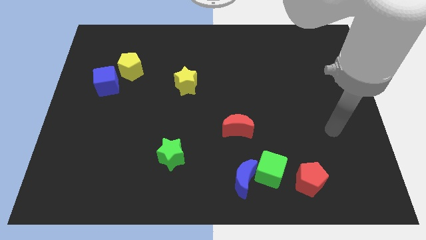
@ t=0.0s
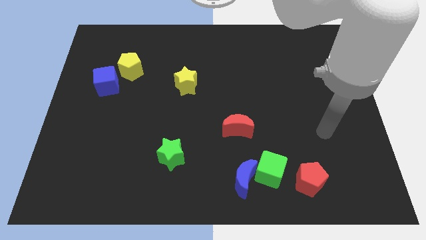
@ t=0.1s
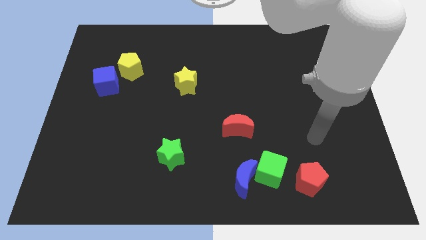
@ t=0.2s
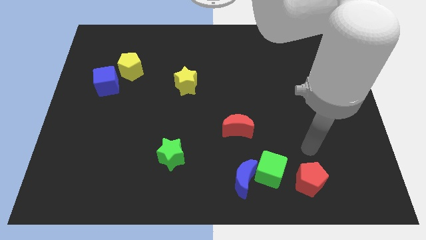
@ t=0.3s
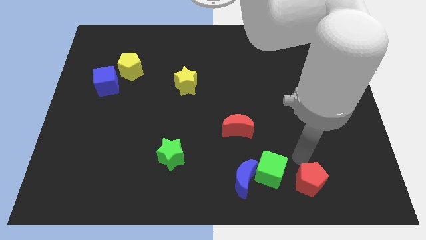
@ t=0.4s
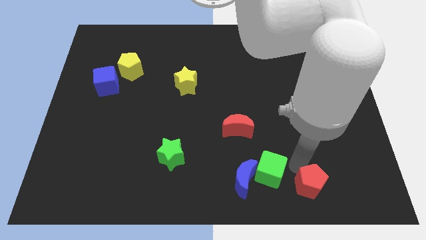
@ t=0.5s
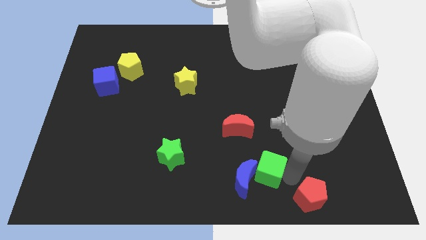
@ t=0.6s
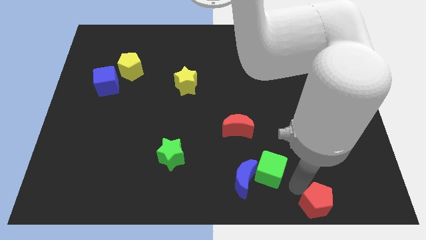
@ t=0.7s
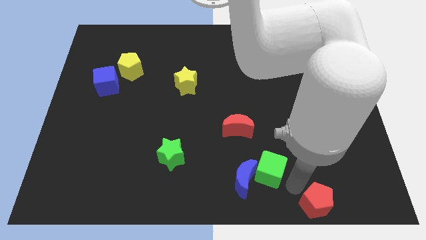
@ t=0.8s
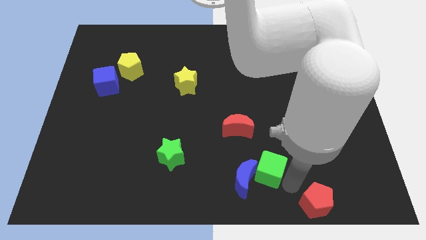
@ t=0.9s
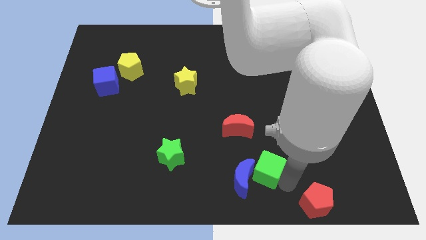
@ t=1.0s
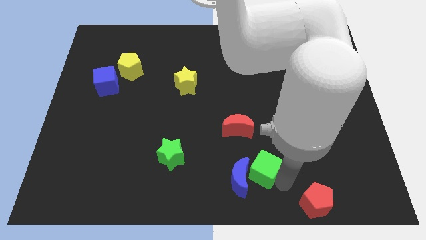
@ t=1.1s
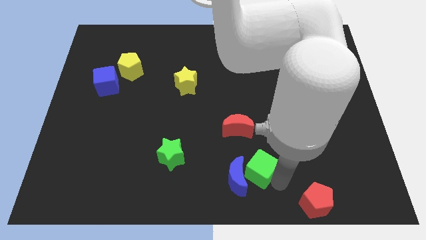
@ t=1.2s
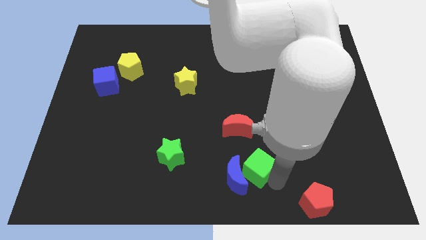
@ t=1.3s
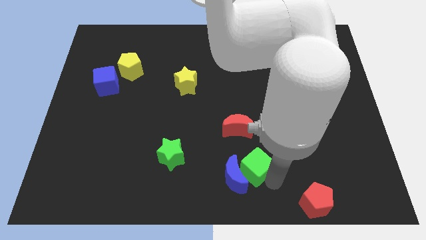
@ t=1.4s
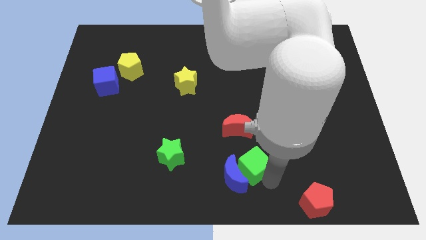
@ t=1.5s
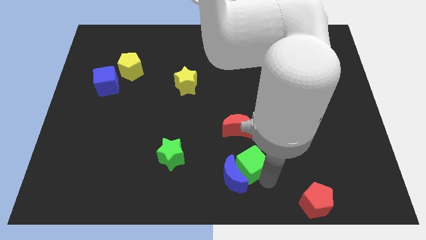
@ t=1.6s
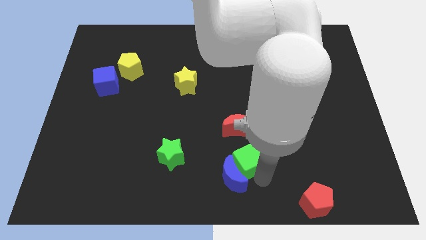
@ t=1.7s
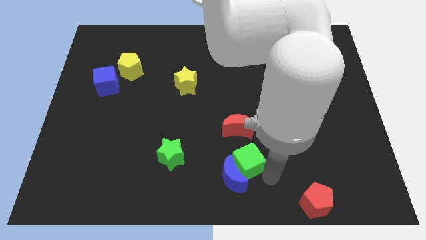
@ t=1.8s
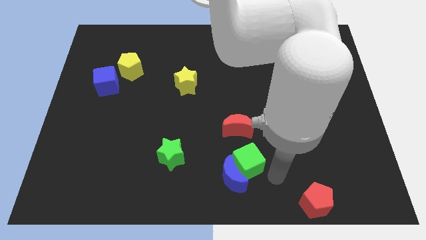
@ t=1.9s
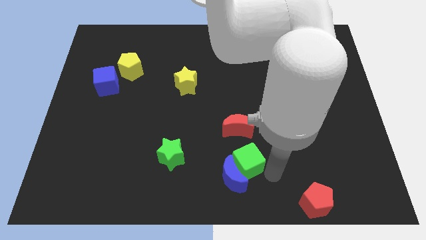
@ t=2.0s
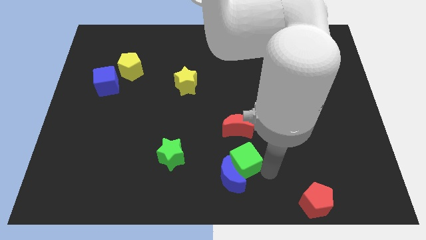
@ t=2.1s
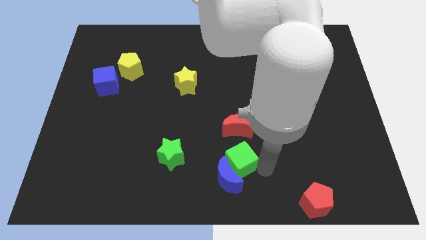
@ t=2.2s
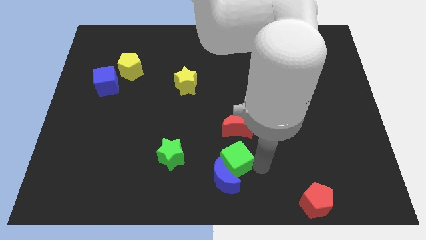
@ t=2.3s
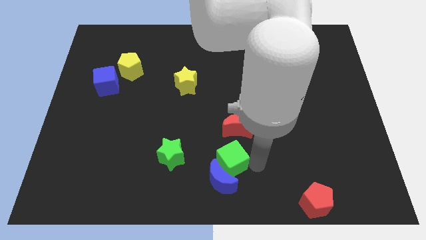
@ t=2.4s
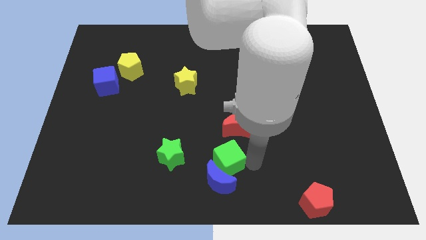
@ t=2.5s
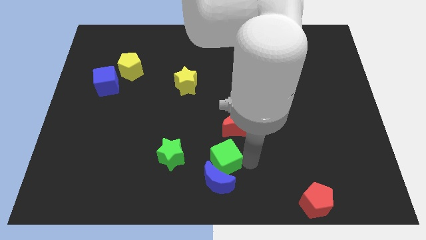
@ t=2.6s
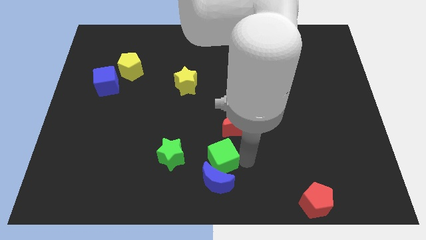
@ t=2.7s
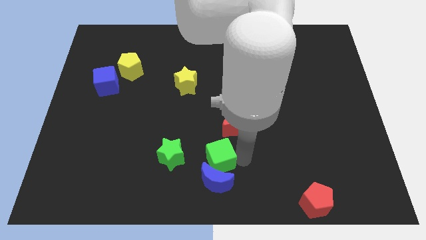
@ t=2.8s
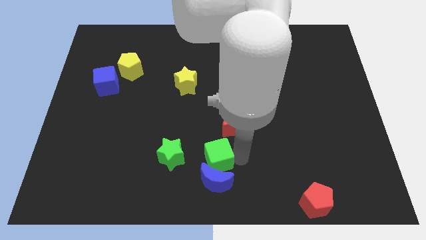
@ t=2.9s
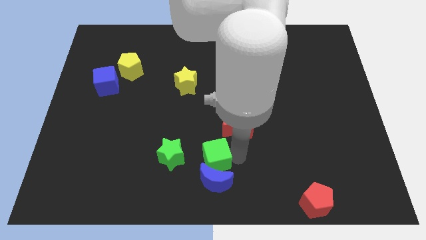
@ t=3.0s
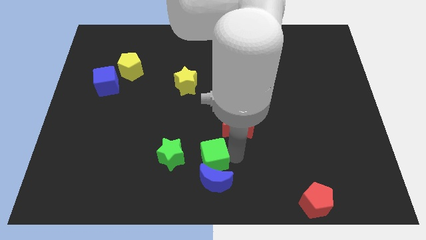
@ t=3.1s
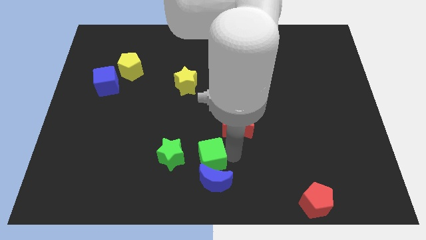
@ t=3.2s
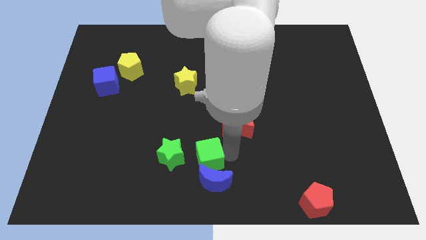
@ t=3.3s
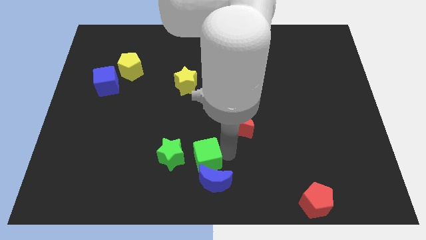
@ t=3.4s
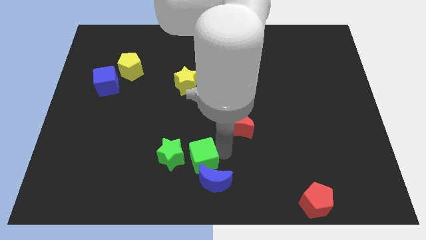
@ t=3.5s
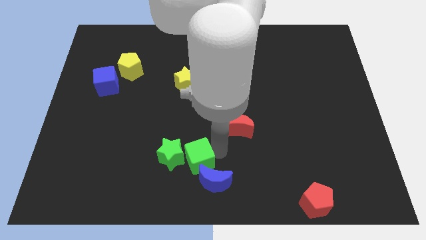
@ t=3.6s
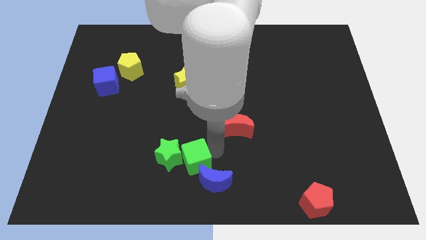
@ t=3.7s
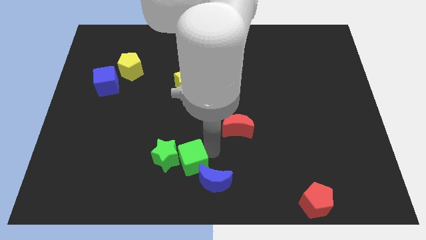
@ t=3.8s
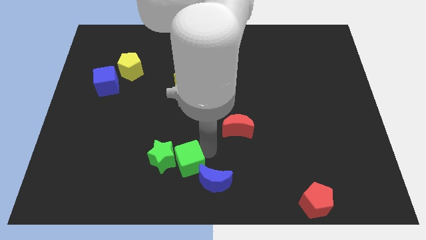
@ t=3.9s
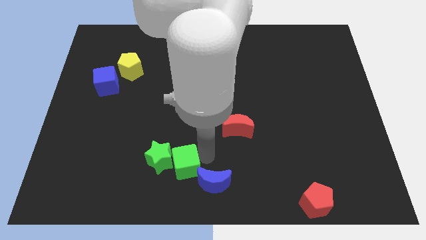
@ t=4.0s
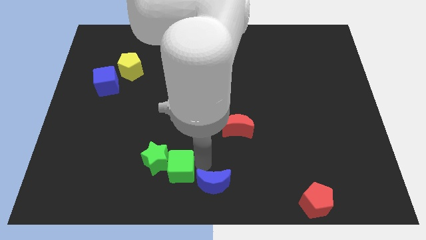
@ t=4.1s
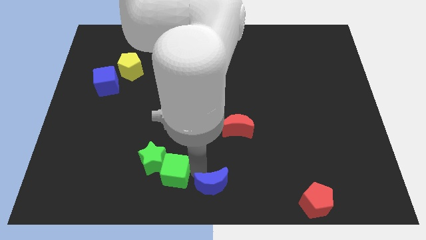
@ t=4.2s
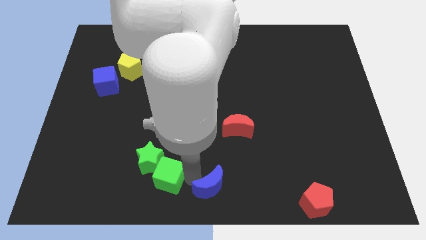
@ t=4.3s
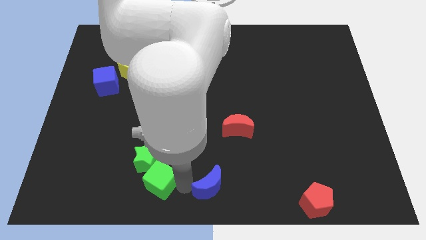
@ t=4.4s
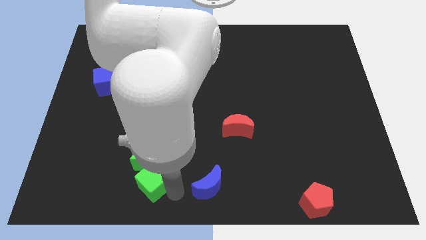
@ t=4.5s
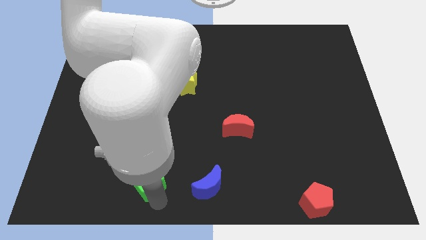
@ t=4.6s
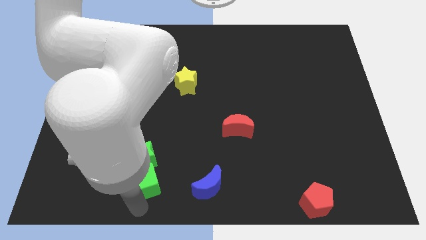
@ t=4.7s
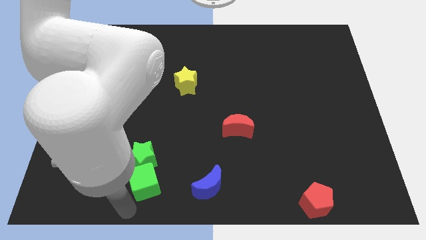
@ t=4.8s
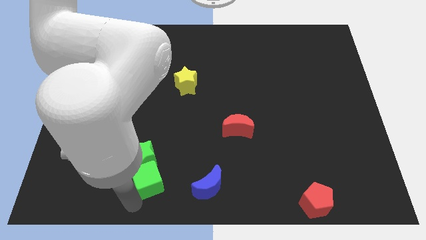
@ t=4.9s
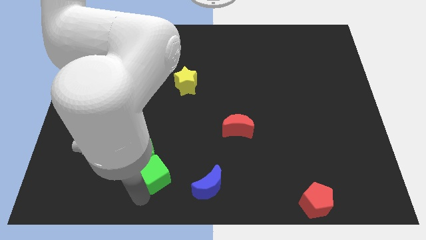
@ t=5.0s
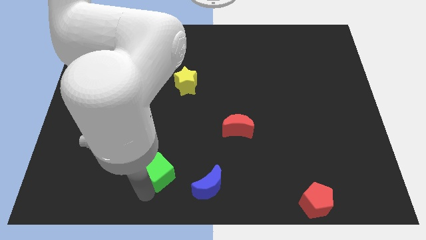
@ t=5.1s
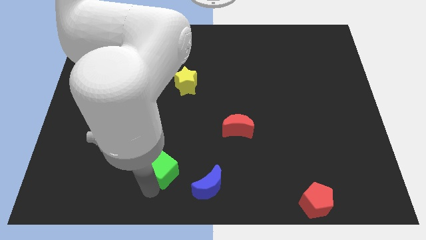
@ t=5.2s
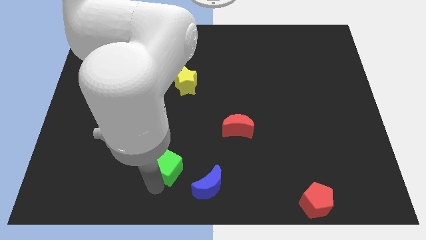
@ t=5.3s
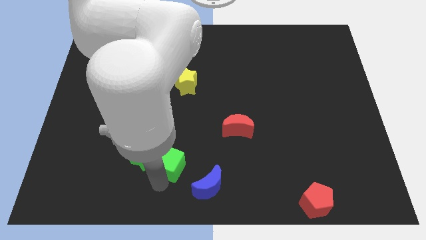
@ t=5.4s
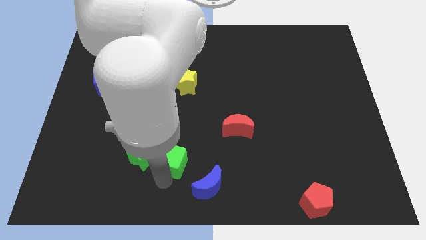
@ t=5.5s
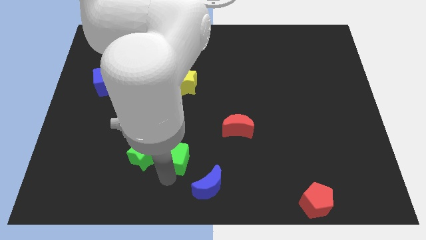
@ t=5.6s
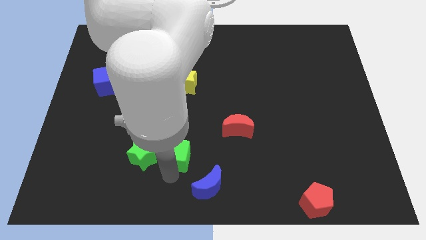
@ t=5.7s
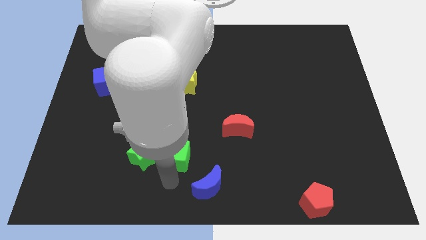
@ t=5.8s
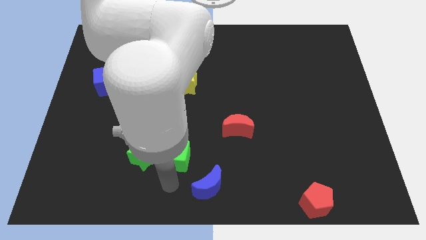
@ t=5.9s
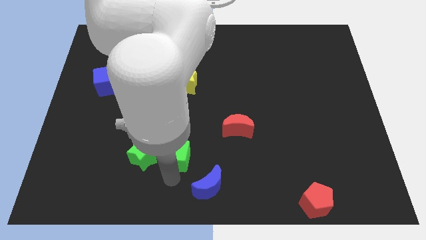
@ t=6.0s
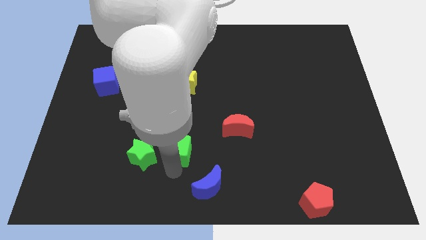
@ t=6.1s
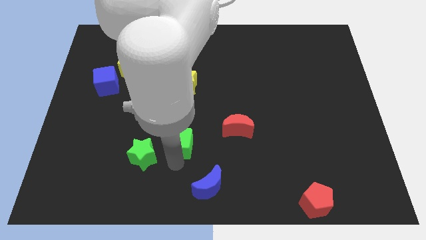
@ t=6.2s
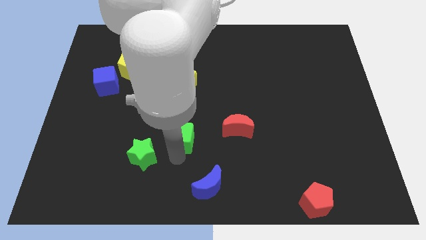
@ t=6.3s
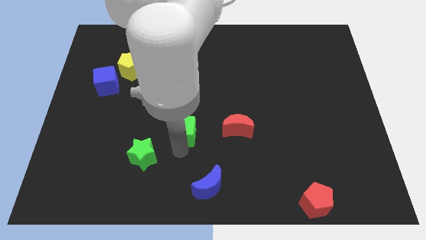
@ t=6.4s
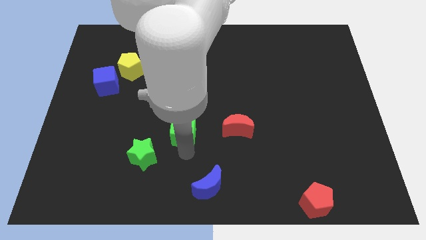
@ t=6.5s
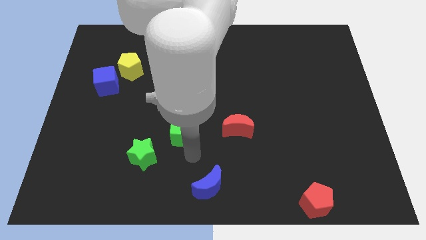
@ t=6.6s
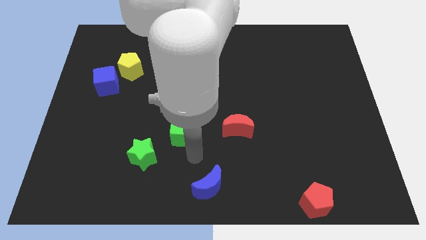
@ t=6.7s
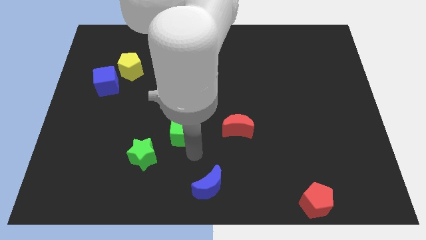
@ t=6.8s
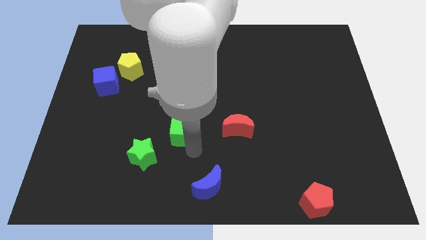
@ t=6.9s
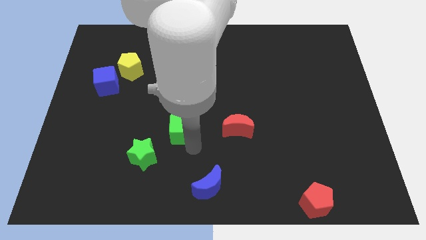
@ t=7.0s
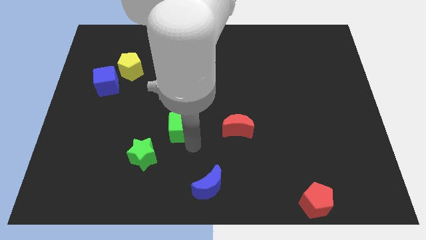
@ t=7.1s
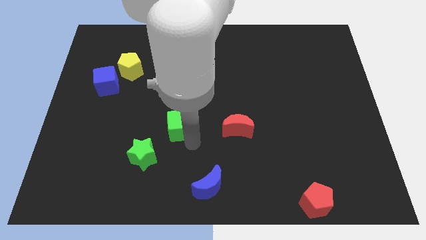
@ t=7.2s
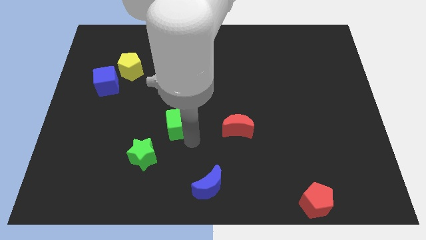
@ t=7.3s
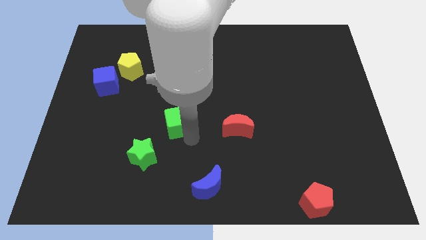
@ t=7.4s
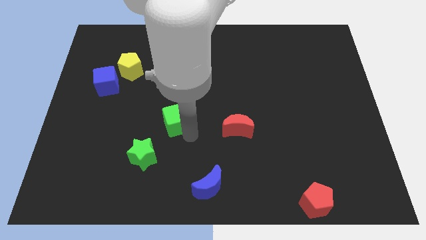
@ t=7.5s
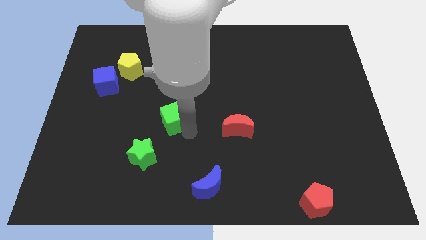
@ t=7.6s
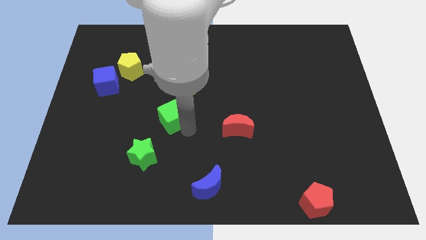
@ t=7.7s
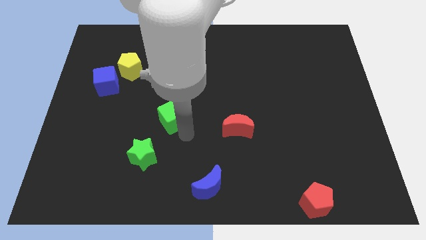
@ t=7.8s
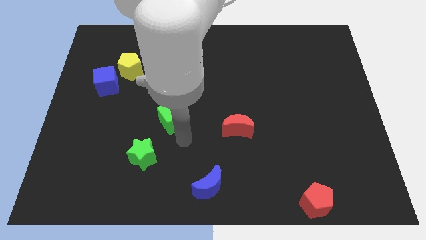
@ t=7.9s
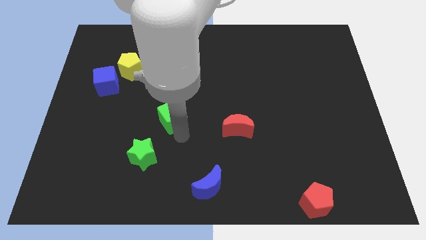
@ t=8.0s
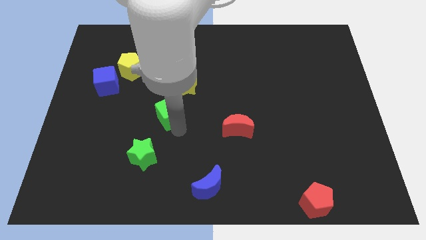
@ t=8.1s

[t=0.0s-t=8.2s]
slide the green cube diagonally down and to the left of the yellow star
